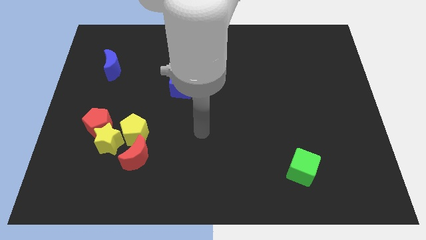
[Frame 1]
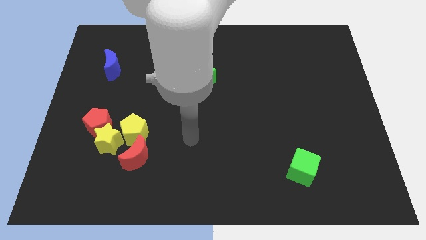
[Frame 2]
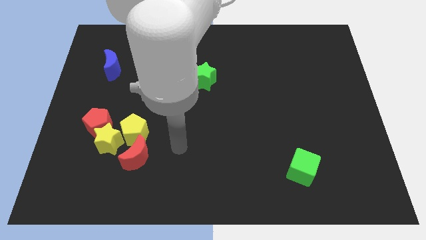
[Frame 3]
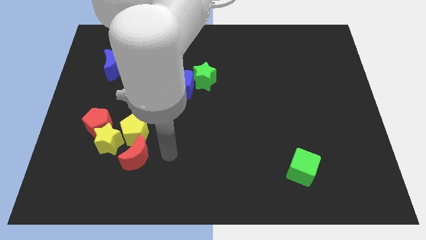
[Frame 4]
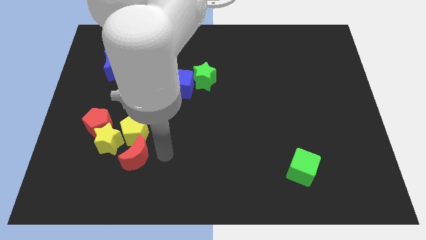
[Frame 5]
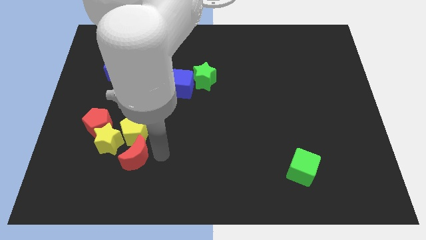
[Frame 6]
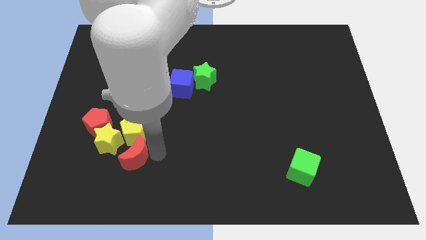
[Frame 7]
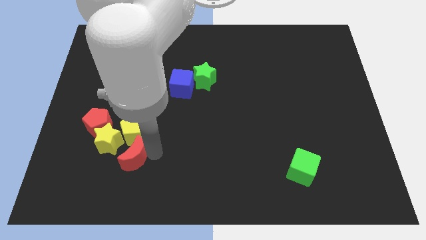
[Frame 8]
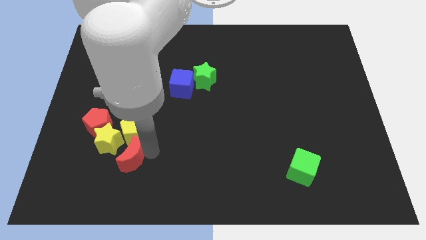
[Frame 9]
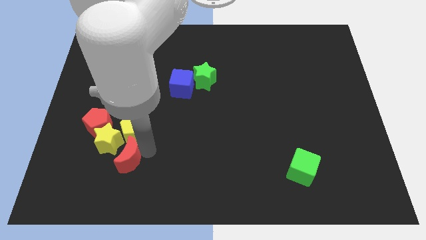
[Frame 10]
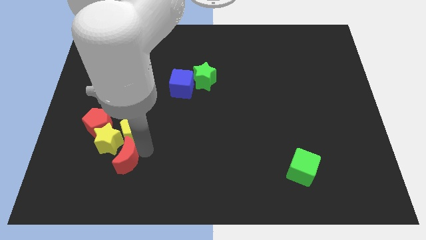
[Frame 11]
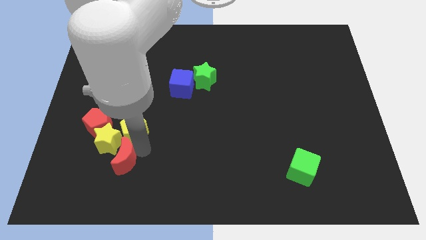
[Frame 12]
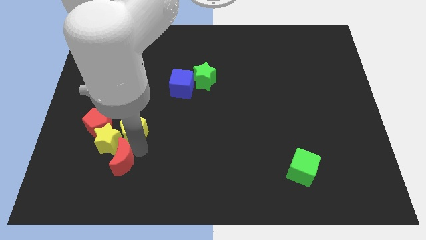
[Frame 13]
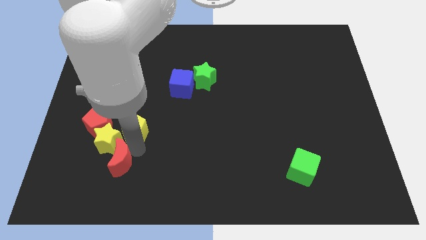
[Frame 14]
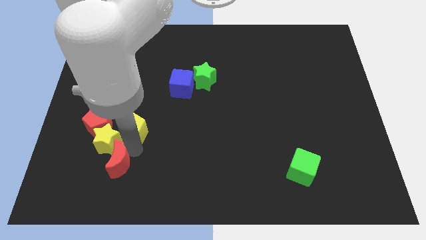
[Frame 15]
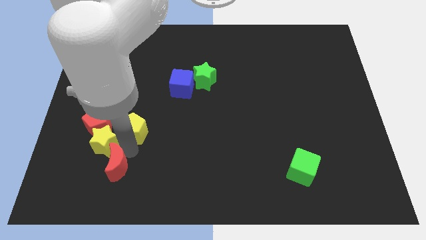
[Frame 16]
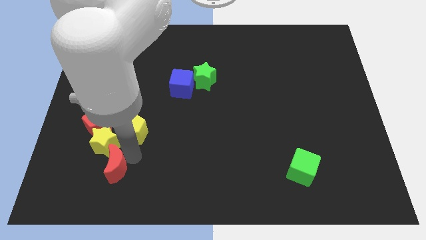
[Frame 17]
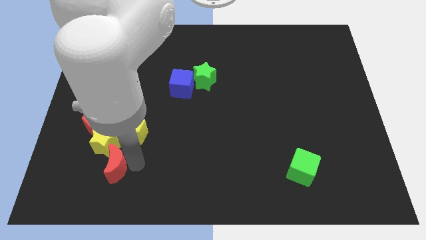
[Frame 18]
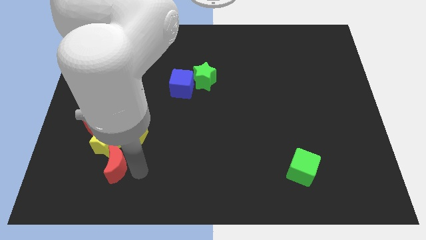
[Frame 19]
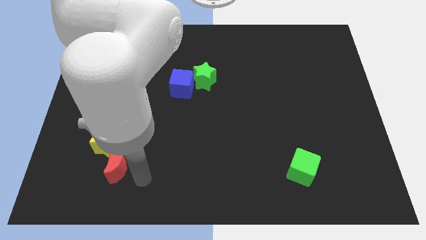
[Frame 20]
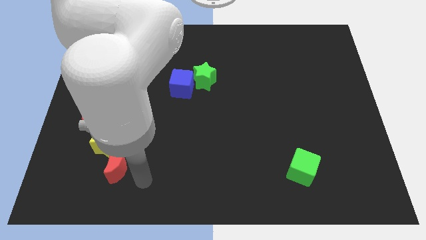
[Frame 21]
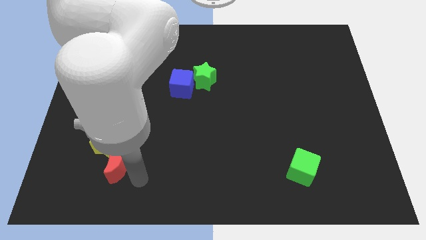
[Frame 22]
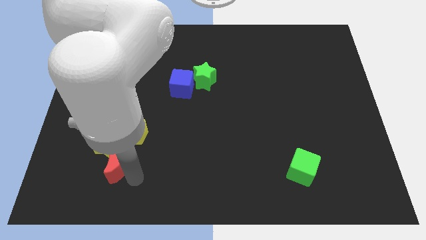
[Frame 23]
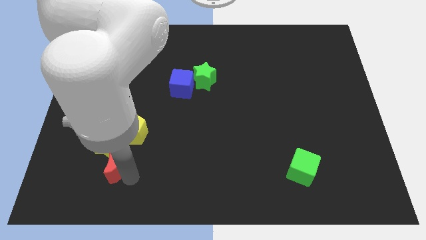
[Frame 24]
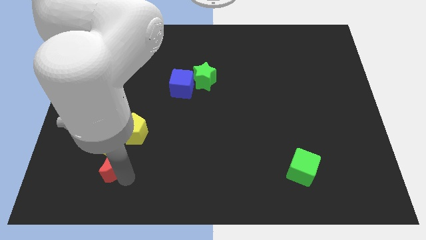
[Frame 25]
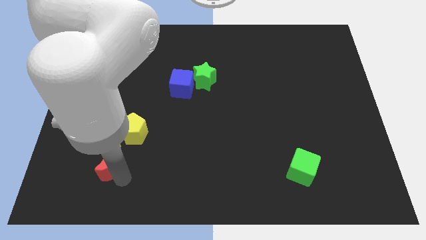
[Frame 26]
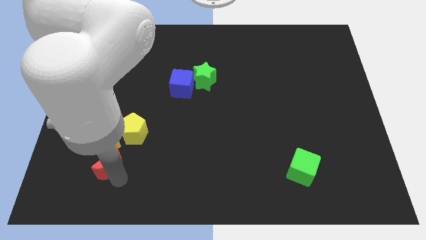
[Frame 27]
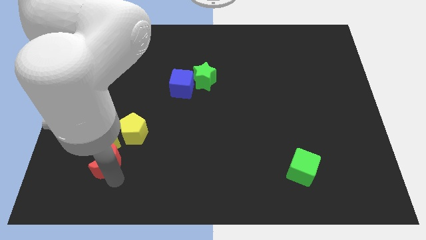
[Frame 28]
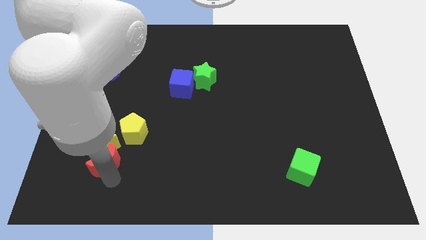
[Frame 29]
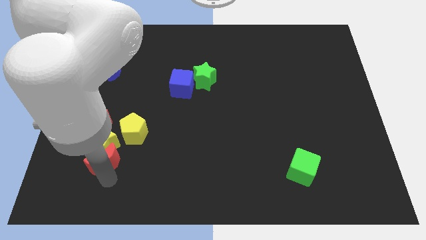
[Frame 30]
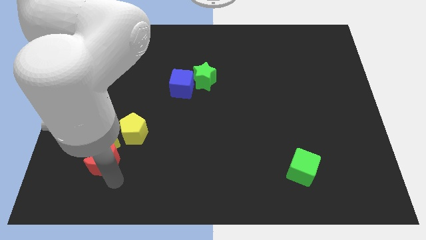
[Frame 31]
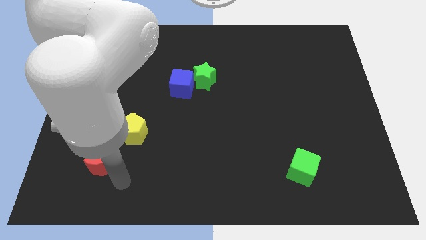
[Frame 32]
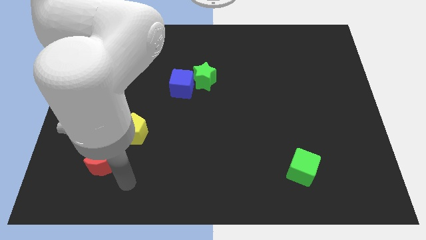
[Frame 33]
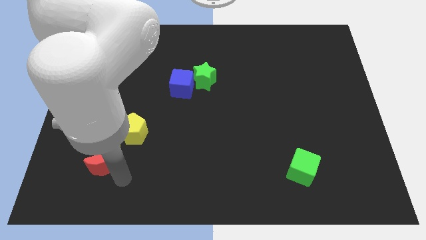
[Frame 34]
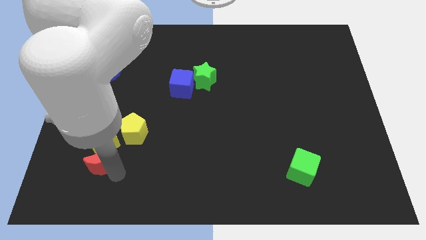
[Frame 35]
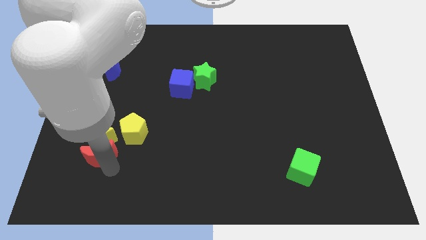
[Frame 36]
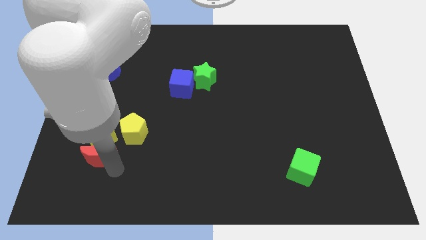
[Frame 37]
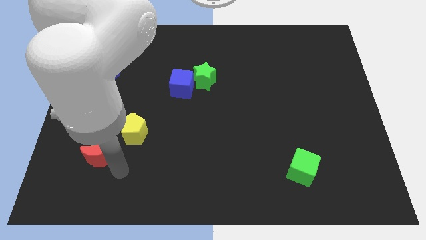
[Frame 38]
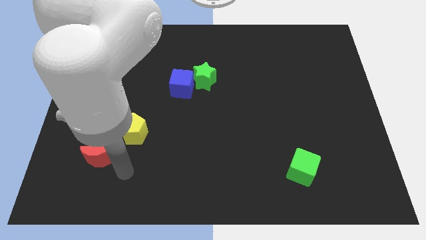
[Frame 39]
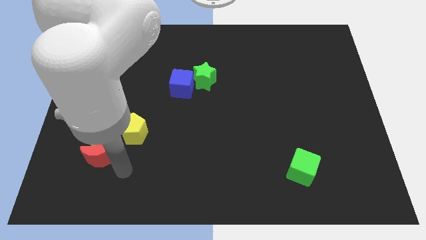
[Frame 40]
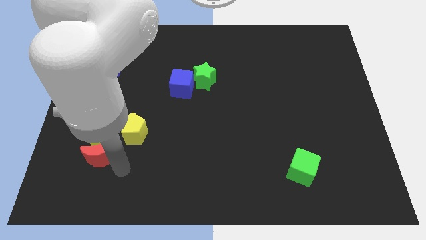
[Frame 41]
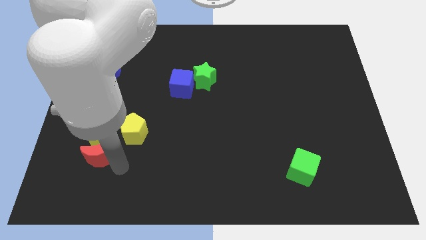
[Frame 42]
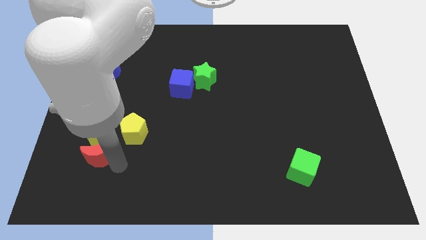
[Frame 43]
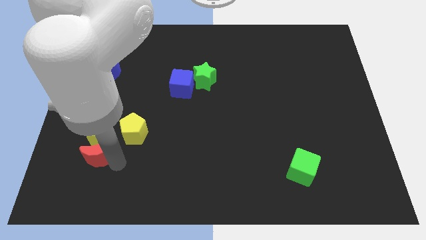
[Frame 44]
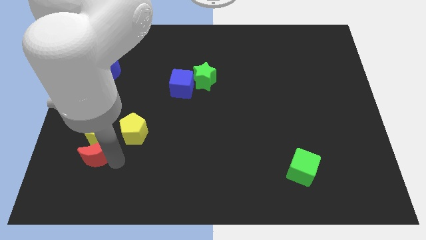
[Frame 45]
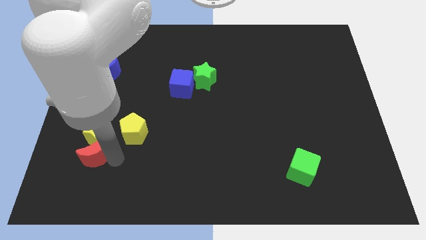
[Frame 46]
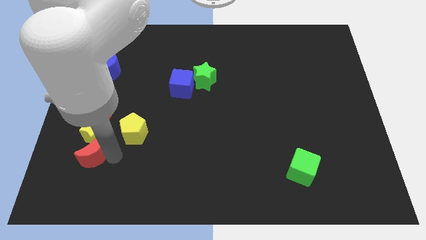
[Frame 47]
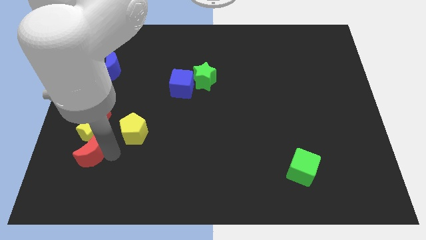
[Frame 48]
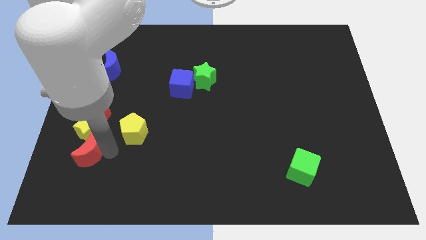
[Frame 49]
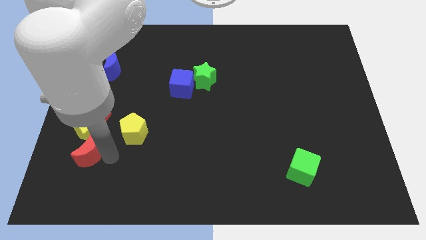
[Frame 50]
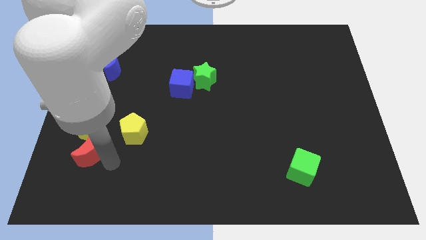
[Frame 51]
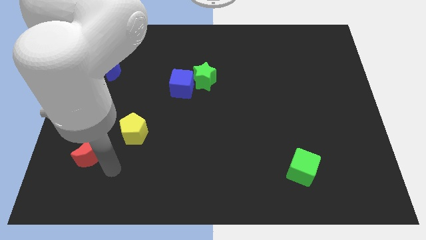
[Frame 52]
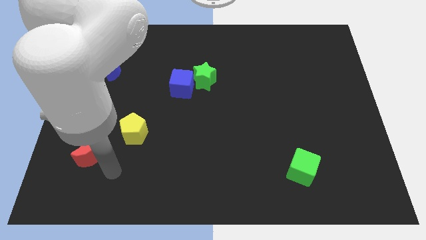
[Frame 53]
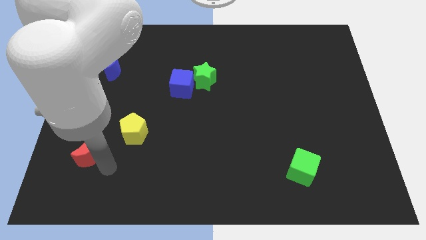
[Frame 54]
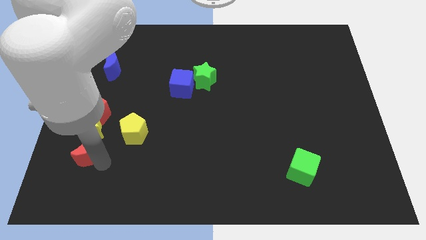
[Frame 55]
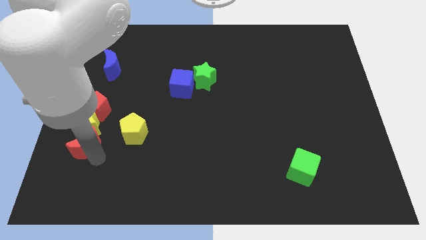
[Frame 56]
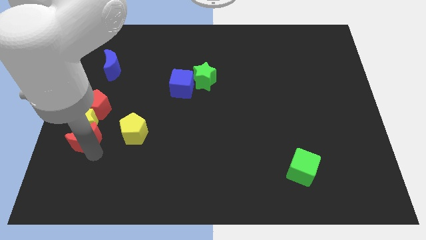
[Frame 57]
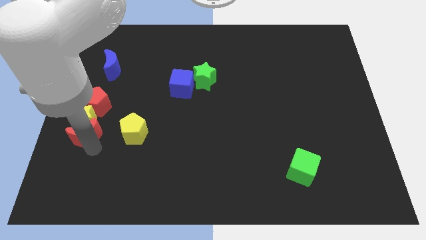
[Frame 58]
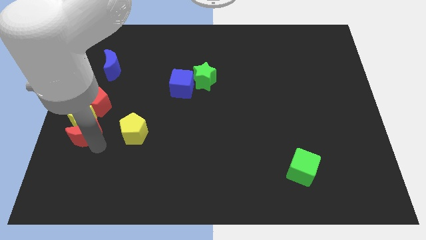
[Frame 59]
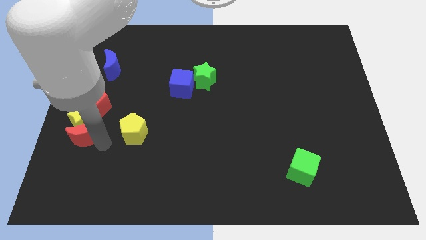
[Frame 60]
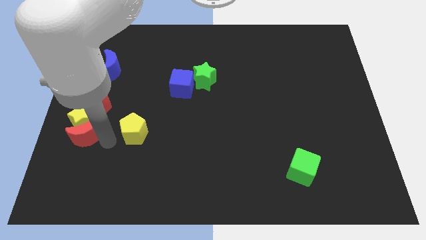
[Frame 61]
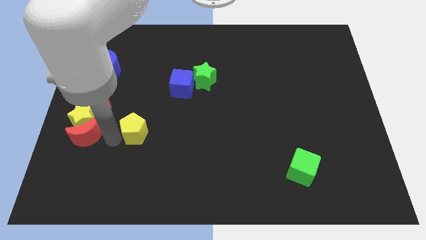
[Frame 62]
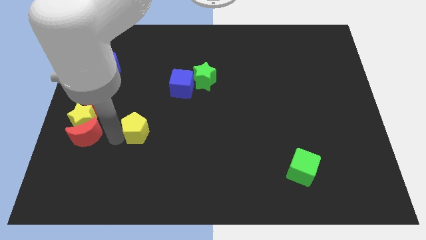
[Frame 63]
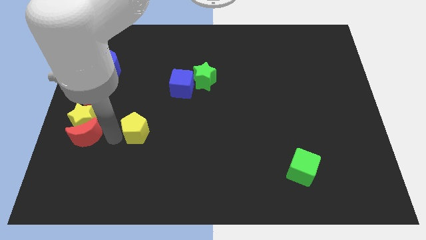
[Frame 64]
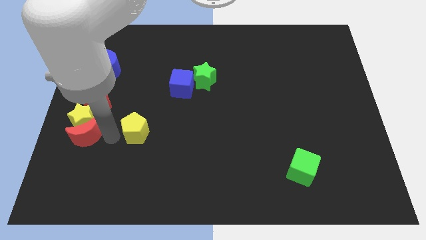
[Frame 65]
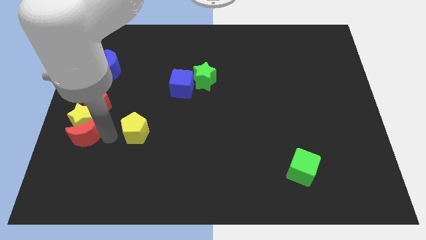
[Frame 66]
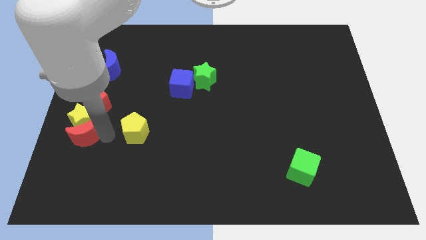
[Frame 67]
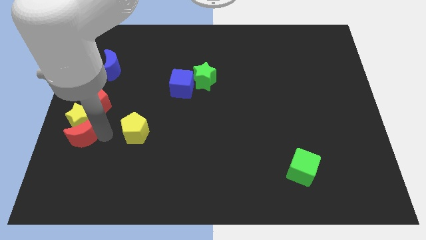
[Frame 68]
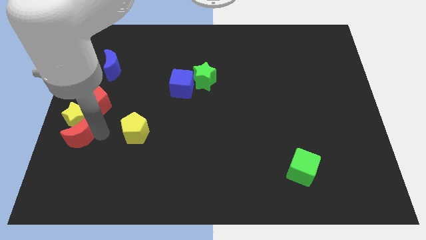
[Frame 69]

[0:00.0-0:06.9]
push the red moon to the left side of the board
